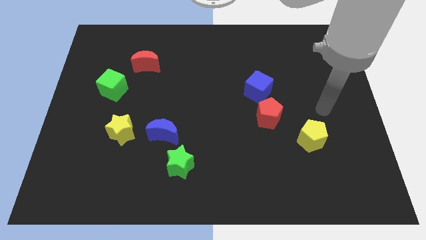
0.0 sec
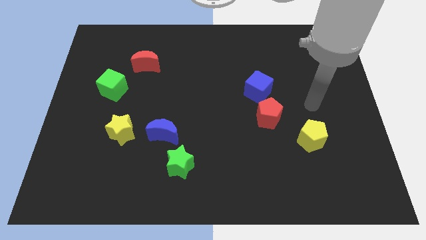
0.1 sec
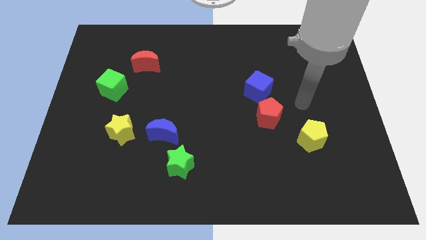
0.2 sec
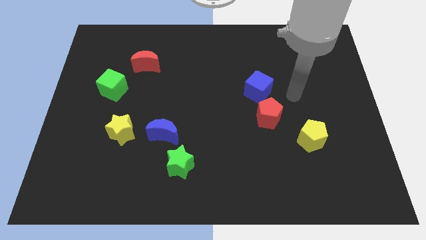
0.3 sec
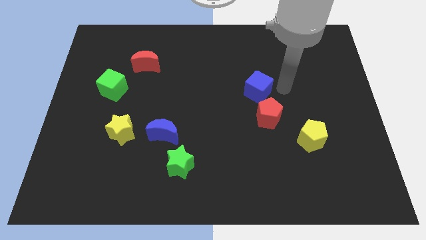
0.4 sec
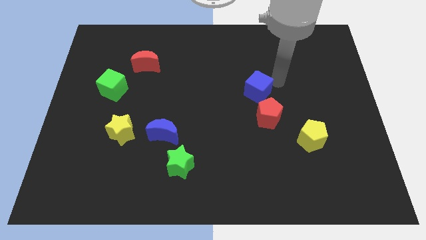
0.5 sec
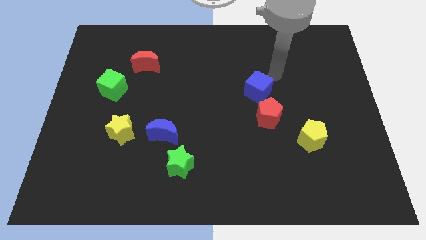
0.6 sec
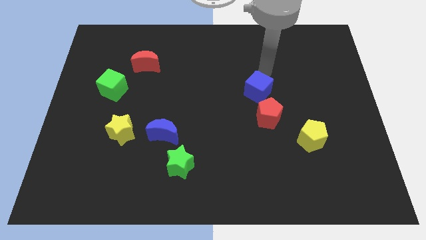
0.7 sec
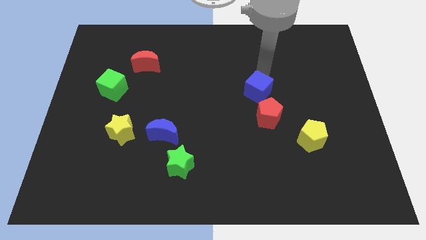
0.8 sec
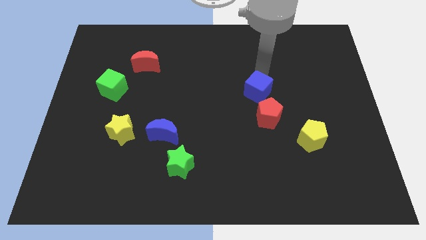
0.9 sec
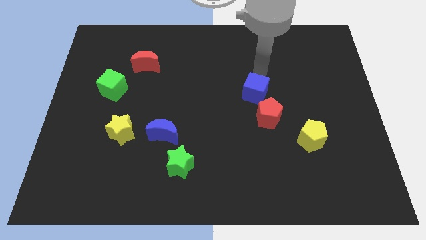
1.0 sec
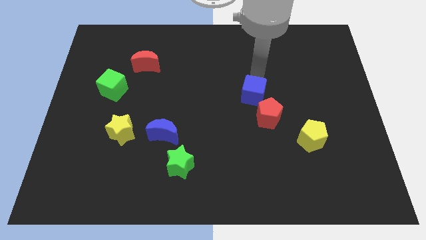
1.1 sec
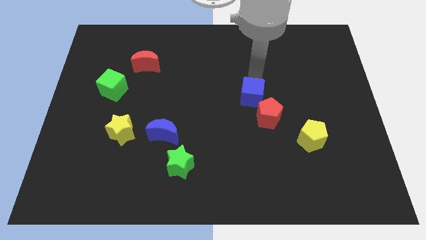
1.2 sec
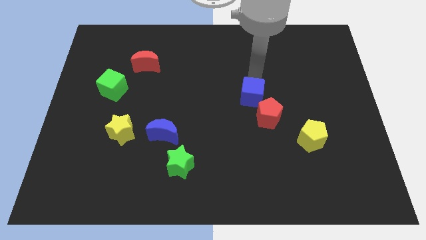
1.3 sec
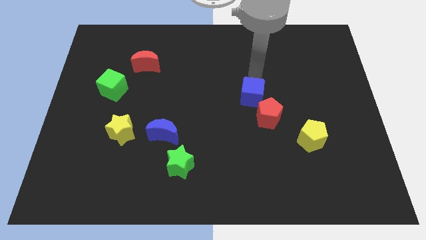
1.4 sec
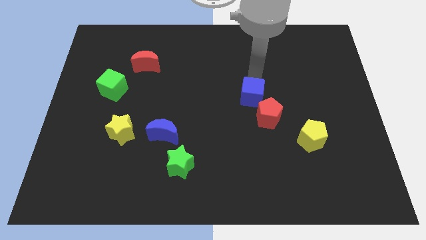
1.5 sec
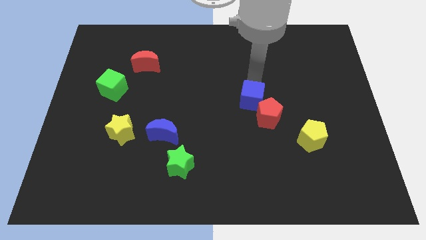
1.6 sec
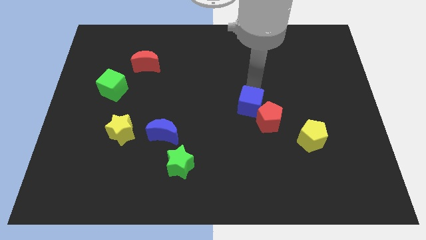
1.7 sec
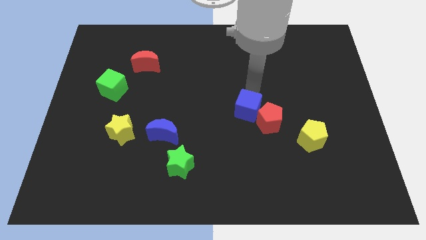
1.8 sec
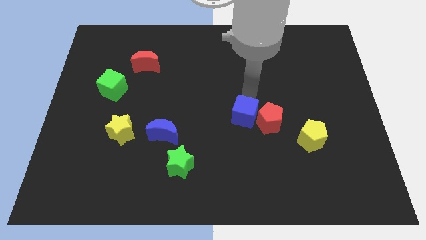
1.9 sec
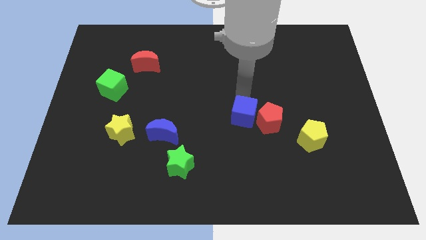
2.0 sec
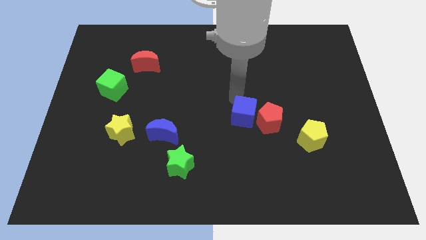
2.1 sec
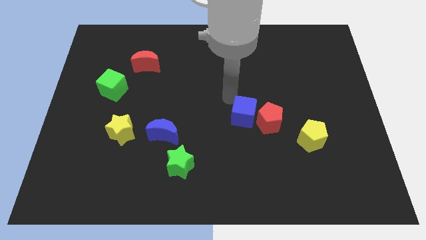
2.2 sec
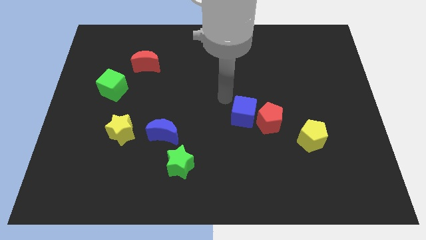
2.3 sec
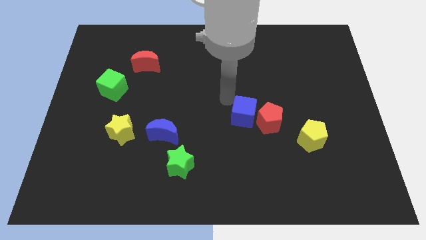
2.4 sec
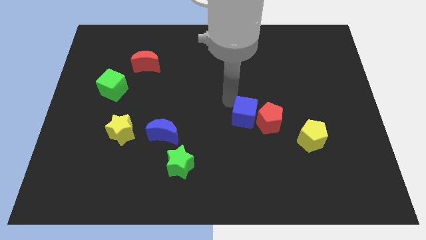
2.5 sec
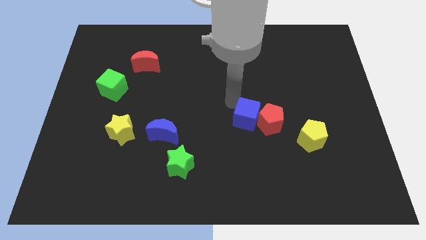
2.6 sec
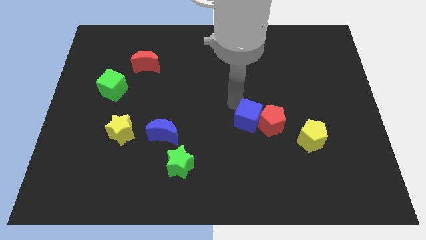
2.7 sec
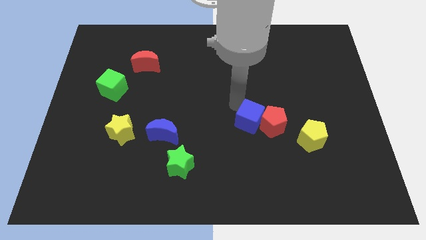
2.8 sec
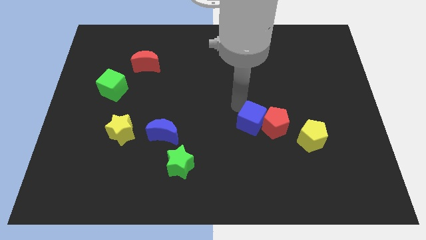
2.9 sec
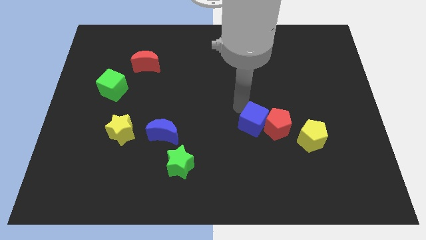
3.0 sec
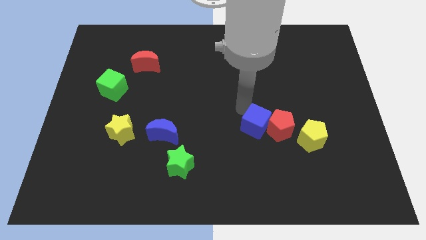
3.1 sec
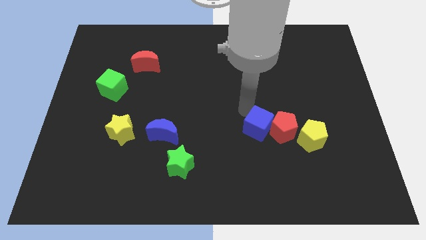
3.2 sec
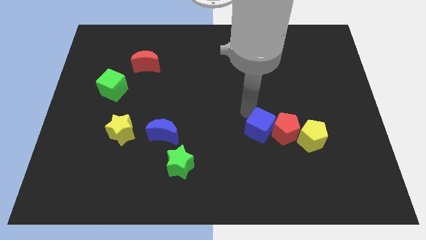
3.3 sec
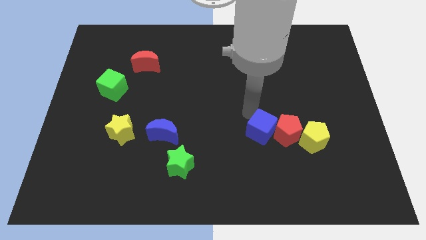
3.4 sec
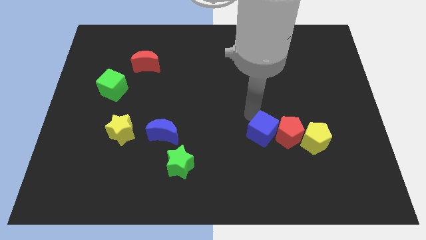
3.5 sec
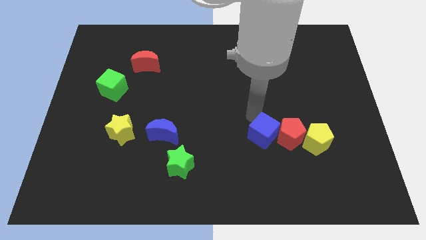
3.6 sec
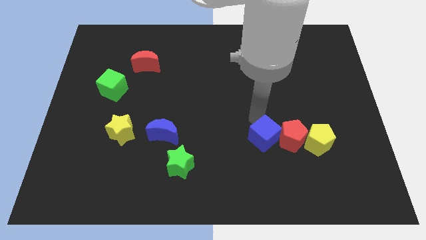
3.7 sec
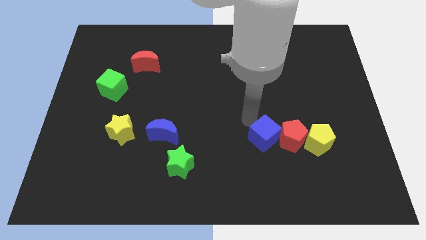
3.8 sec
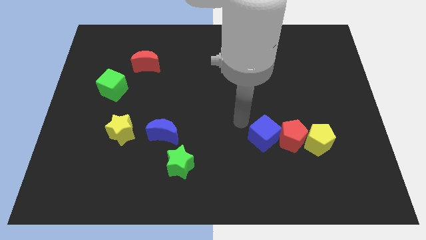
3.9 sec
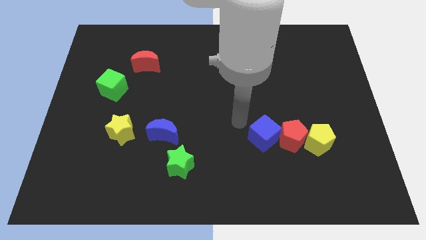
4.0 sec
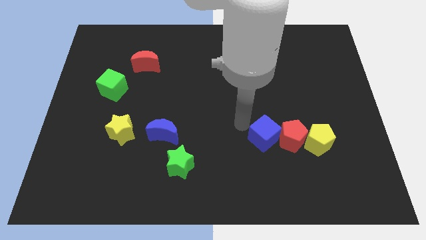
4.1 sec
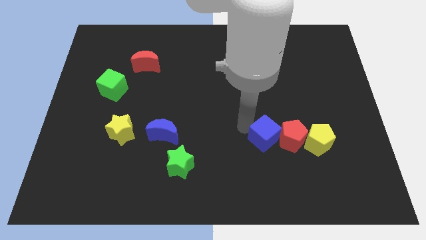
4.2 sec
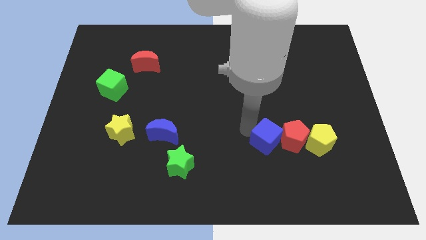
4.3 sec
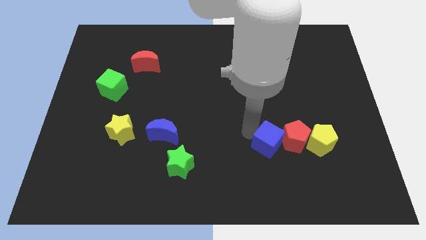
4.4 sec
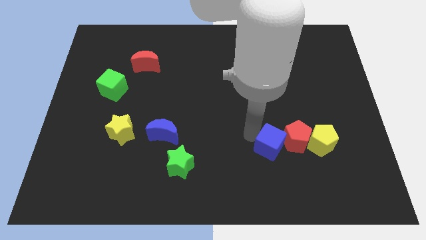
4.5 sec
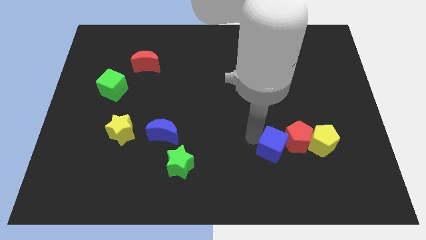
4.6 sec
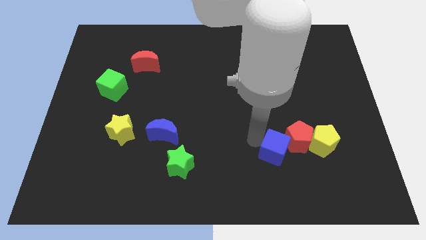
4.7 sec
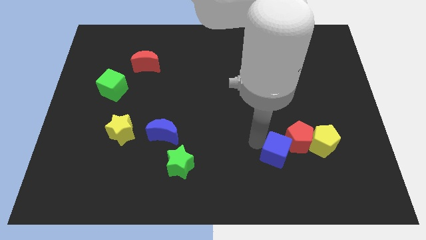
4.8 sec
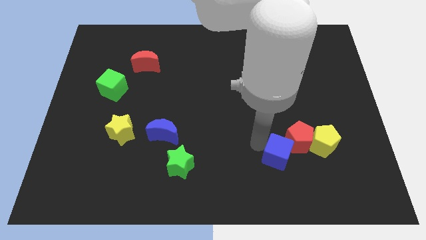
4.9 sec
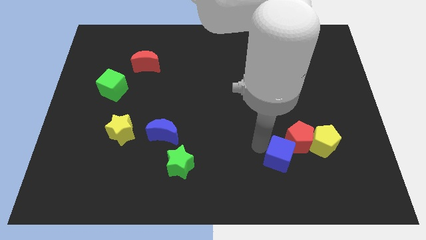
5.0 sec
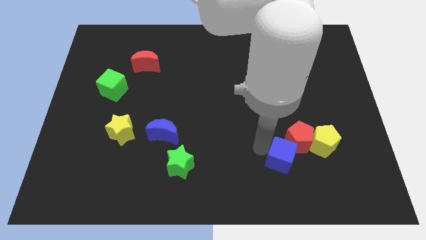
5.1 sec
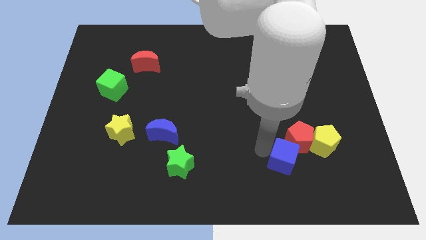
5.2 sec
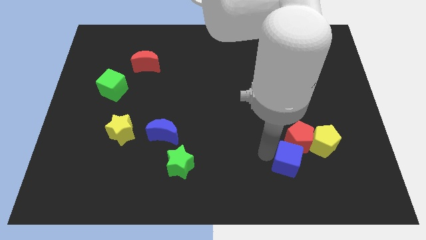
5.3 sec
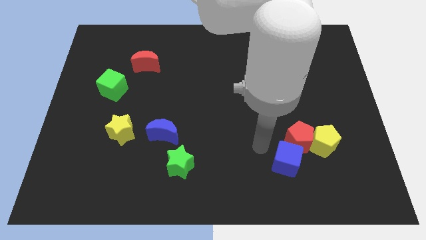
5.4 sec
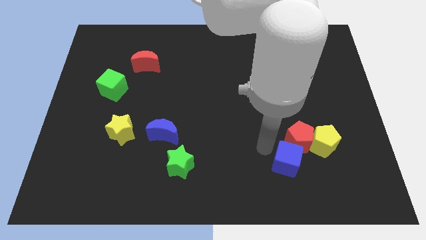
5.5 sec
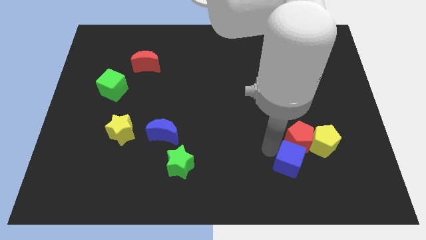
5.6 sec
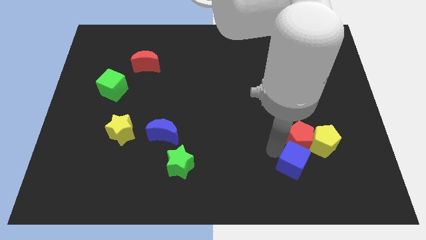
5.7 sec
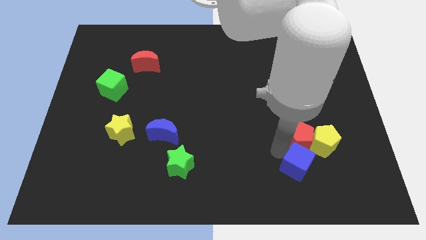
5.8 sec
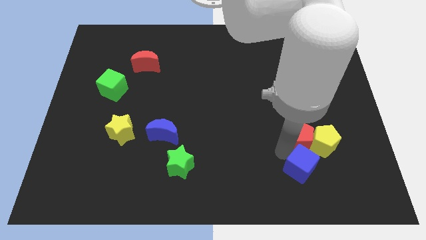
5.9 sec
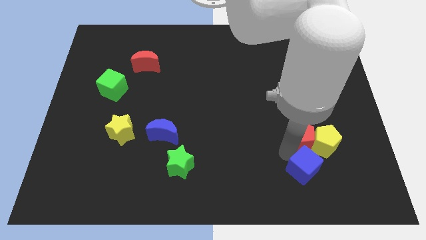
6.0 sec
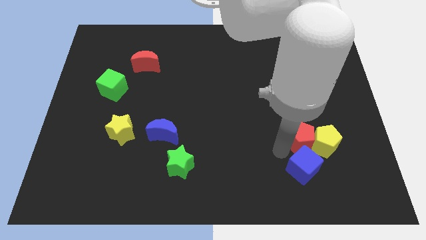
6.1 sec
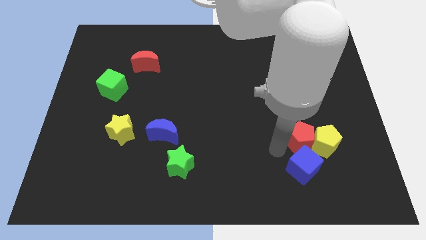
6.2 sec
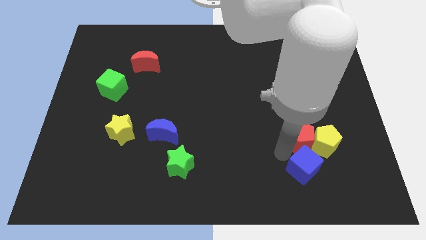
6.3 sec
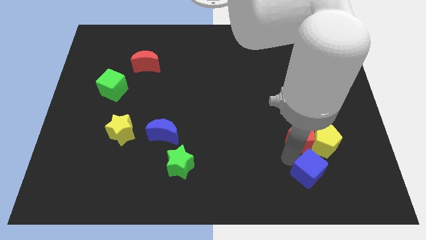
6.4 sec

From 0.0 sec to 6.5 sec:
move the blue cube below the yellow pentagon
